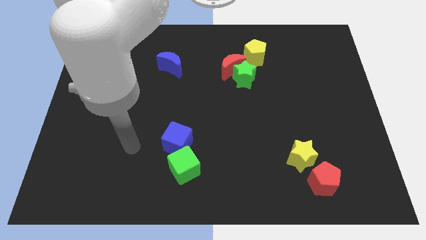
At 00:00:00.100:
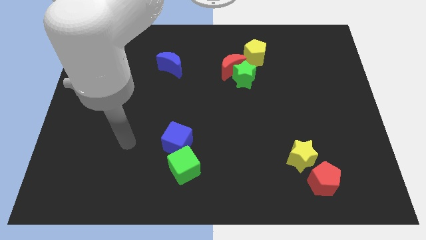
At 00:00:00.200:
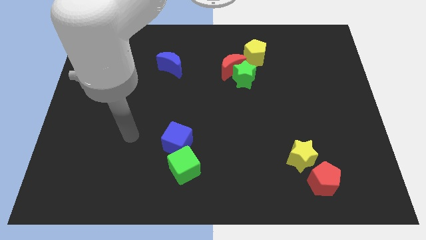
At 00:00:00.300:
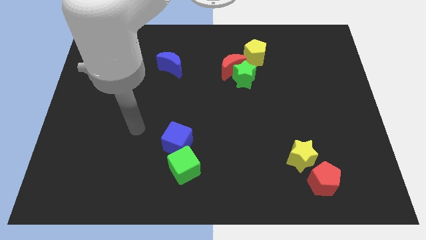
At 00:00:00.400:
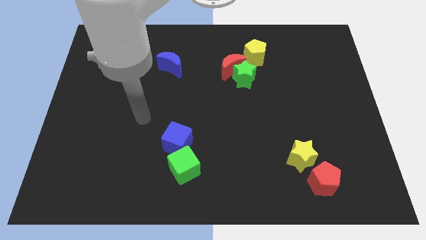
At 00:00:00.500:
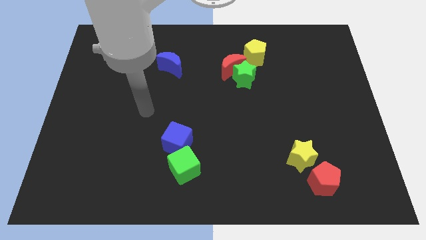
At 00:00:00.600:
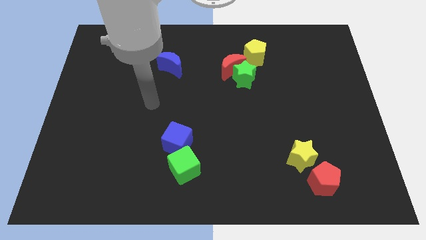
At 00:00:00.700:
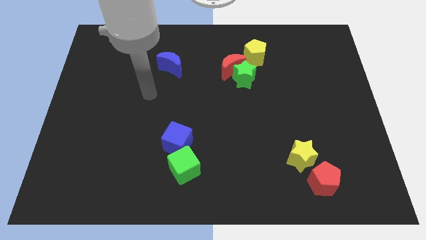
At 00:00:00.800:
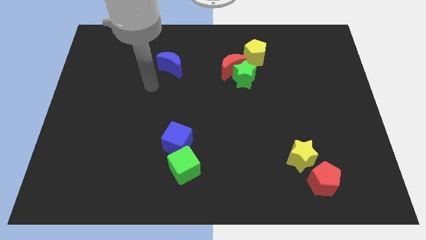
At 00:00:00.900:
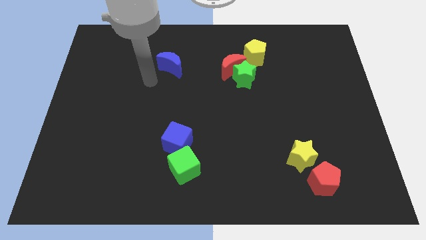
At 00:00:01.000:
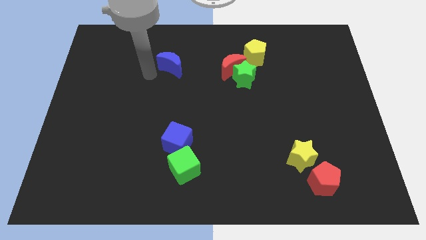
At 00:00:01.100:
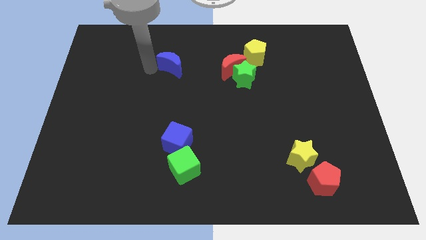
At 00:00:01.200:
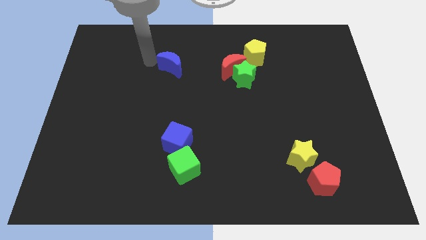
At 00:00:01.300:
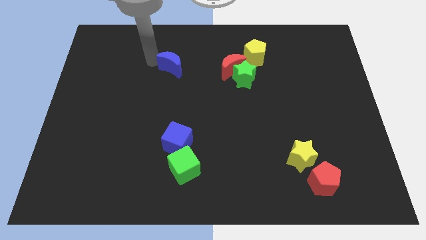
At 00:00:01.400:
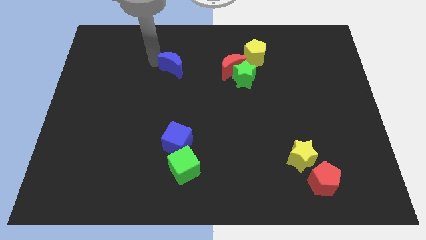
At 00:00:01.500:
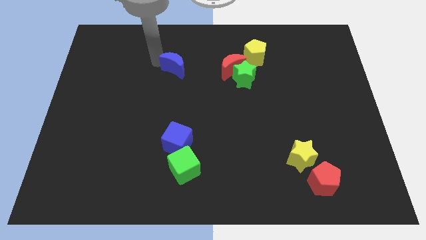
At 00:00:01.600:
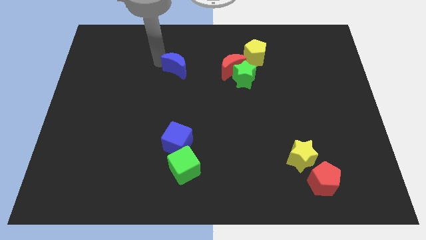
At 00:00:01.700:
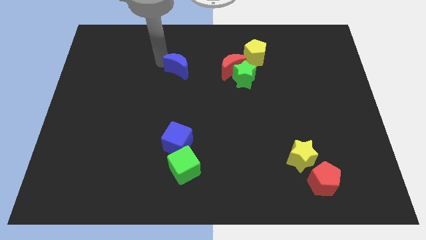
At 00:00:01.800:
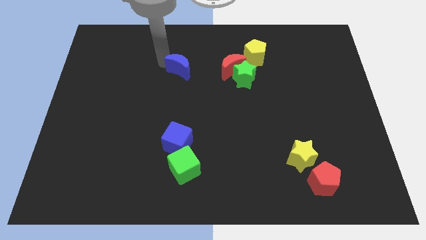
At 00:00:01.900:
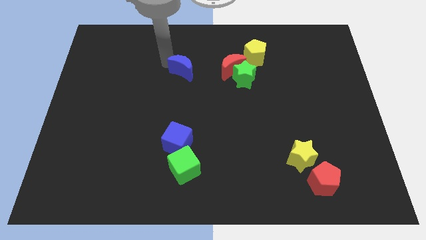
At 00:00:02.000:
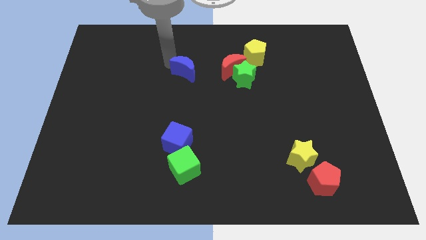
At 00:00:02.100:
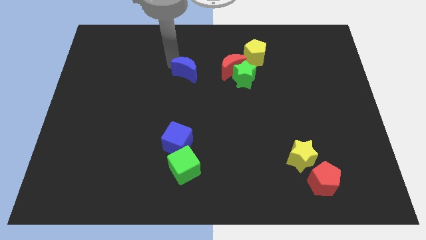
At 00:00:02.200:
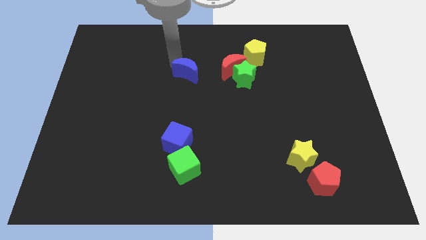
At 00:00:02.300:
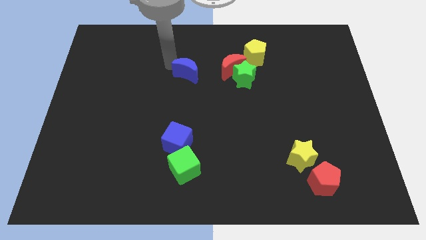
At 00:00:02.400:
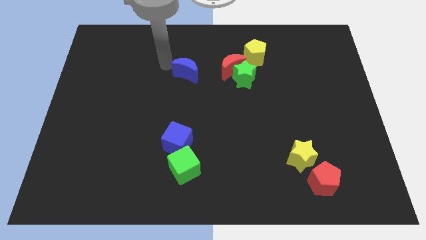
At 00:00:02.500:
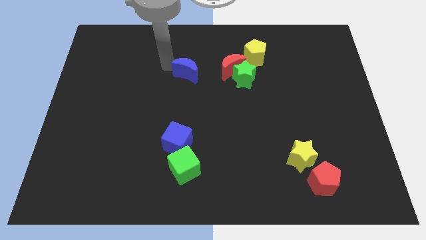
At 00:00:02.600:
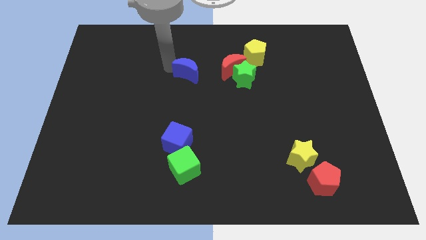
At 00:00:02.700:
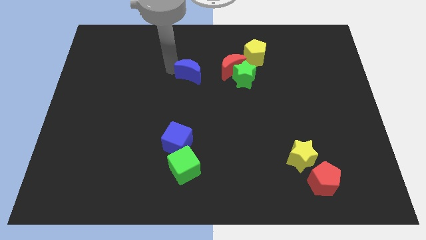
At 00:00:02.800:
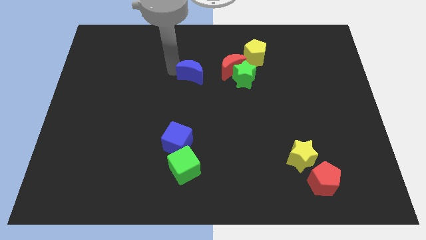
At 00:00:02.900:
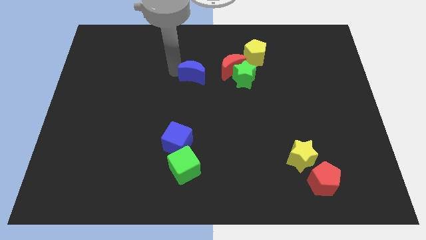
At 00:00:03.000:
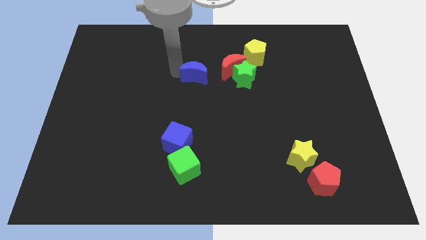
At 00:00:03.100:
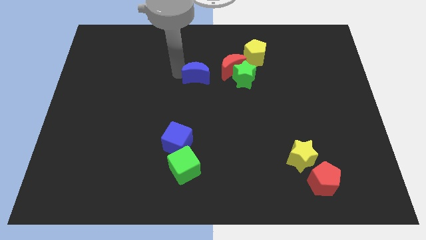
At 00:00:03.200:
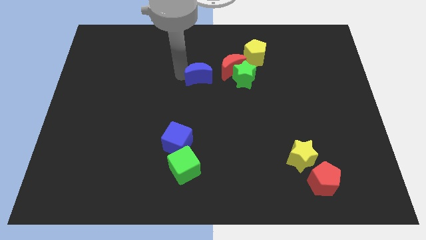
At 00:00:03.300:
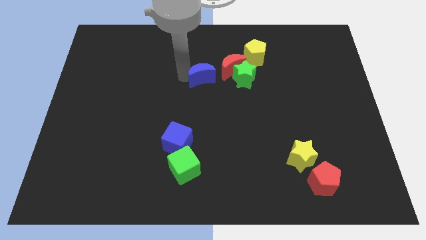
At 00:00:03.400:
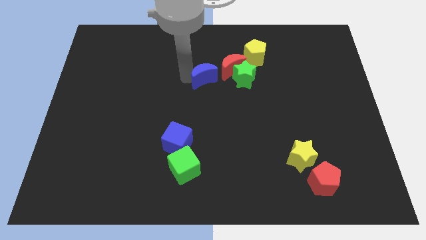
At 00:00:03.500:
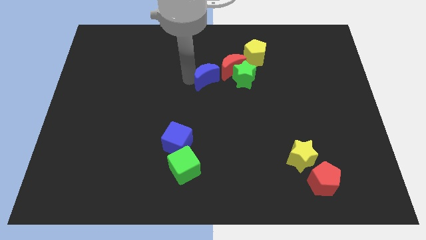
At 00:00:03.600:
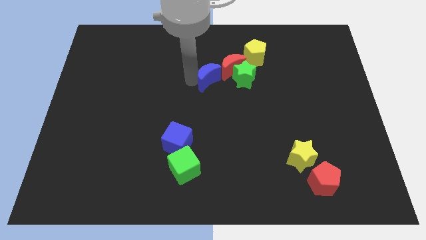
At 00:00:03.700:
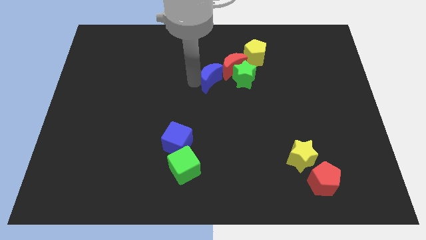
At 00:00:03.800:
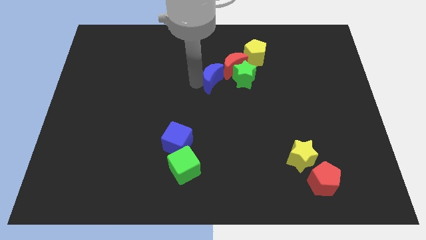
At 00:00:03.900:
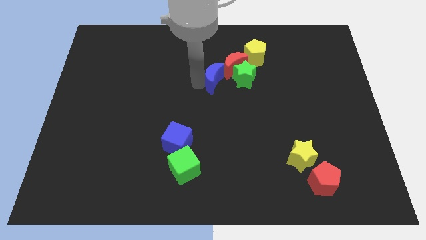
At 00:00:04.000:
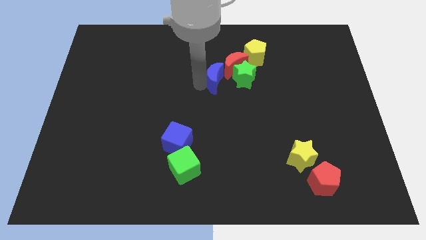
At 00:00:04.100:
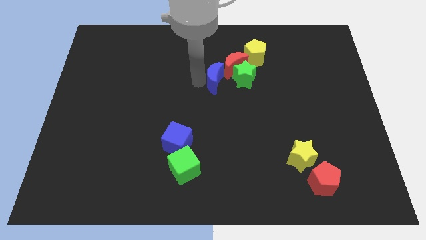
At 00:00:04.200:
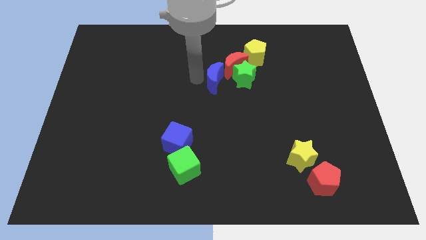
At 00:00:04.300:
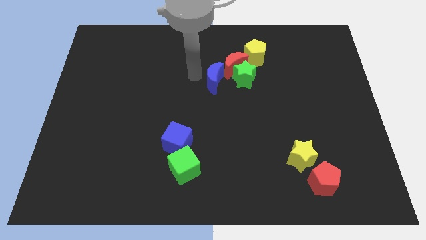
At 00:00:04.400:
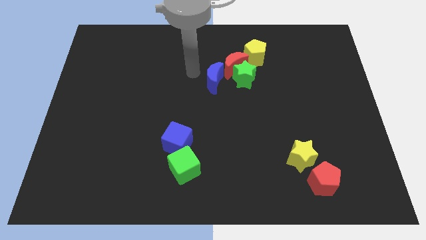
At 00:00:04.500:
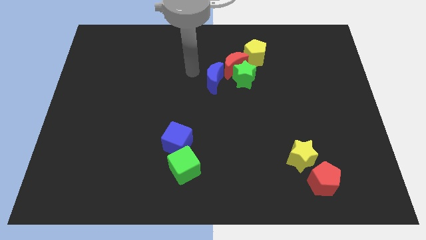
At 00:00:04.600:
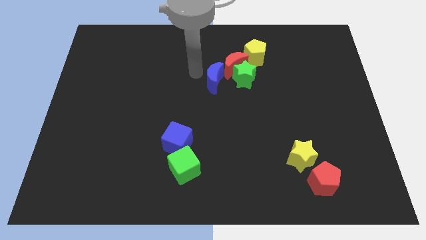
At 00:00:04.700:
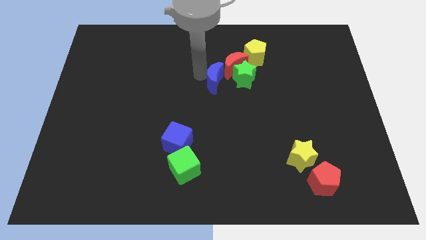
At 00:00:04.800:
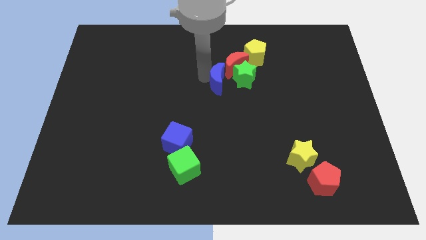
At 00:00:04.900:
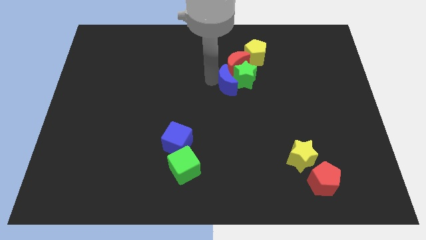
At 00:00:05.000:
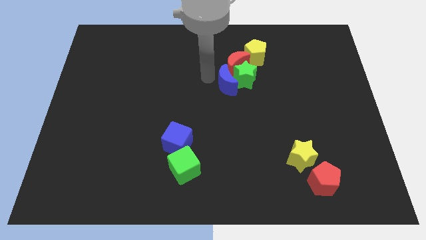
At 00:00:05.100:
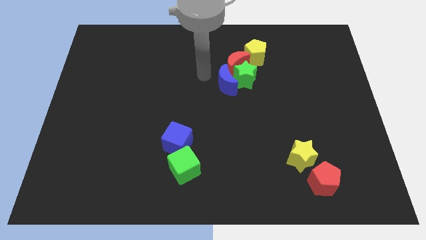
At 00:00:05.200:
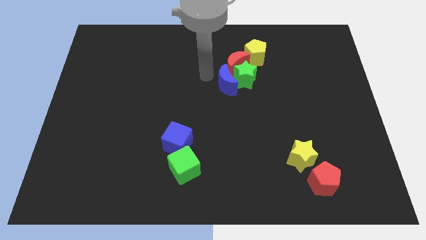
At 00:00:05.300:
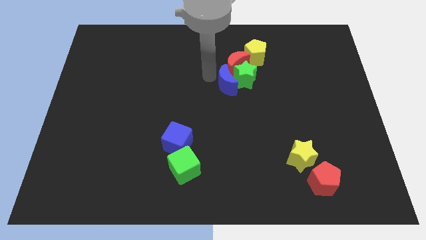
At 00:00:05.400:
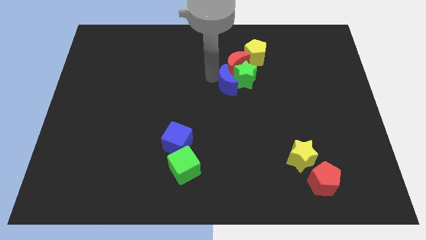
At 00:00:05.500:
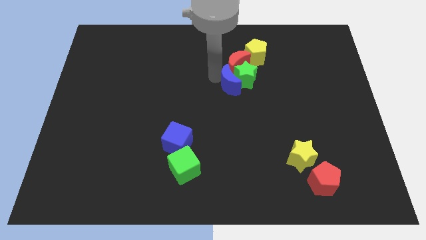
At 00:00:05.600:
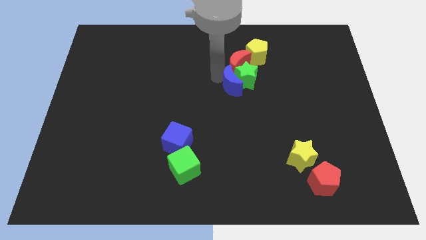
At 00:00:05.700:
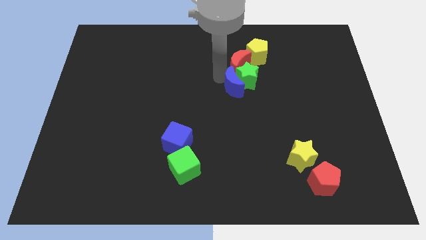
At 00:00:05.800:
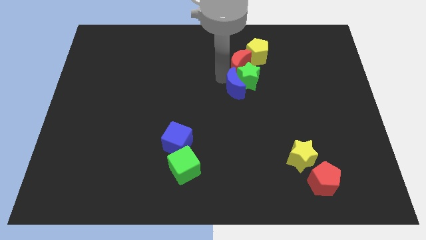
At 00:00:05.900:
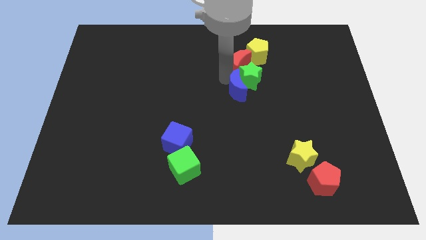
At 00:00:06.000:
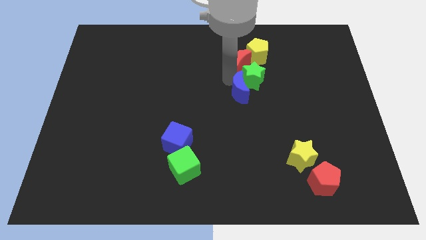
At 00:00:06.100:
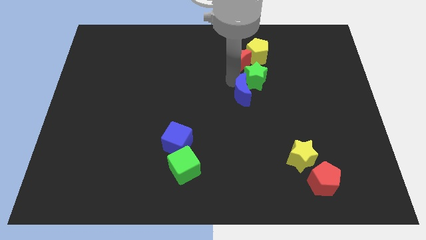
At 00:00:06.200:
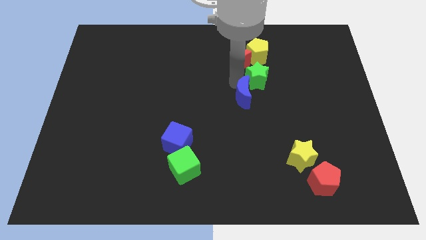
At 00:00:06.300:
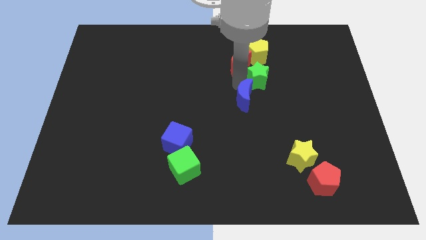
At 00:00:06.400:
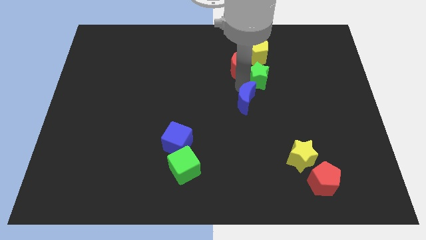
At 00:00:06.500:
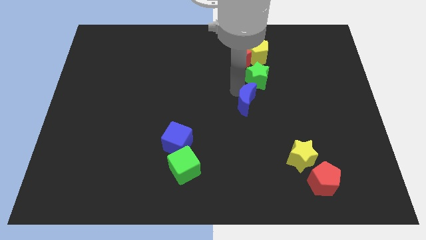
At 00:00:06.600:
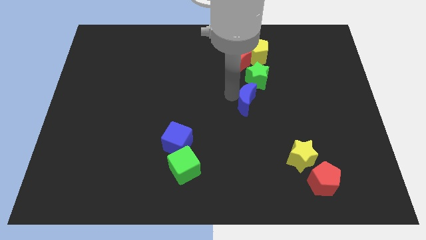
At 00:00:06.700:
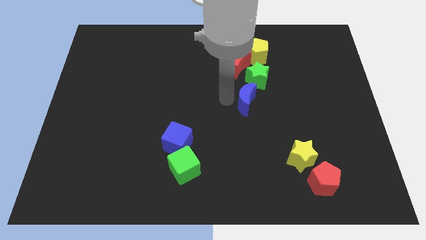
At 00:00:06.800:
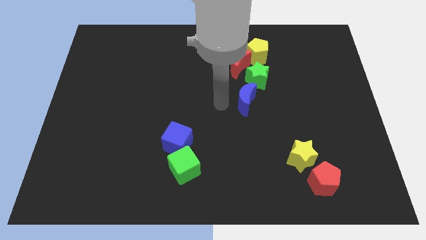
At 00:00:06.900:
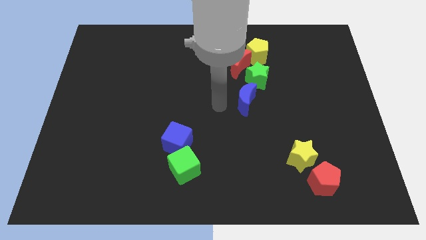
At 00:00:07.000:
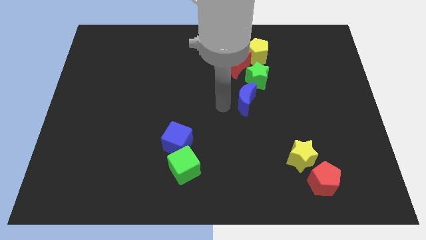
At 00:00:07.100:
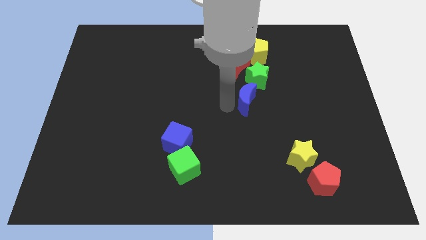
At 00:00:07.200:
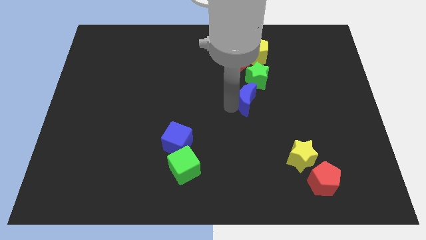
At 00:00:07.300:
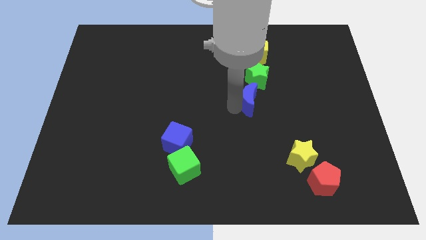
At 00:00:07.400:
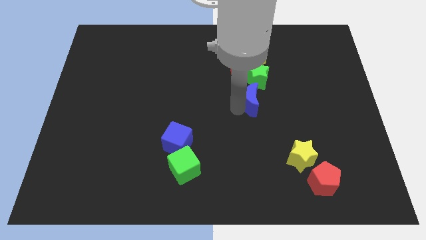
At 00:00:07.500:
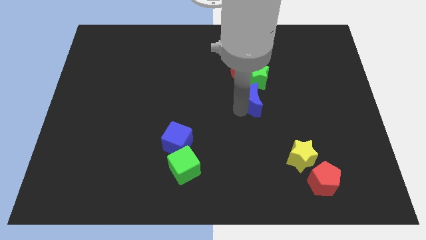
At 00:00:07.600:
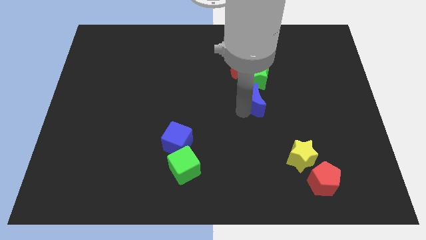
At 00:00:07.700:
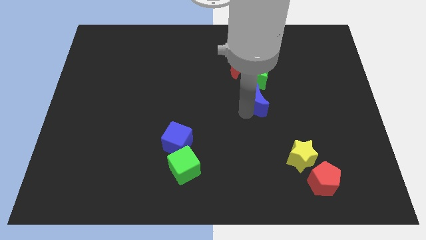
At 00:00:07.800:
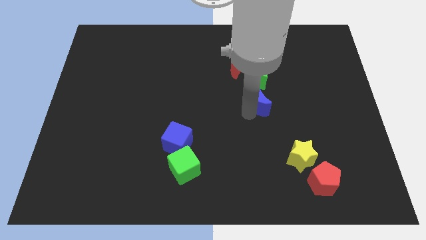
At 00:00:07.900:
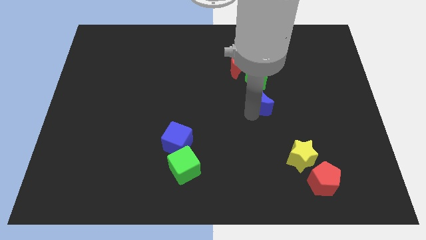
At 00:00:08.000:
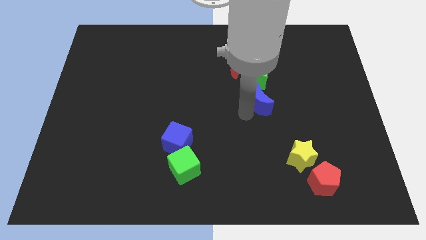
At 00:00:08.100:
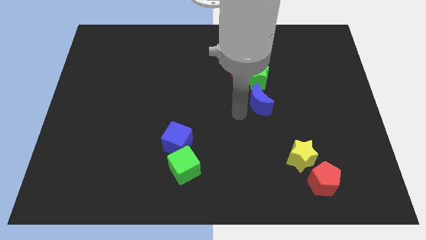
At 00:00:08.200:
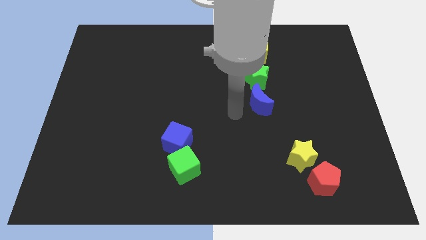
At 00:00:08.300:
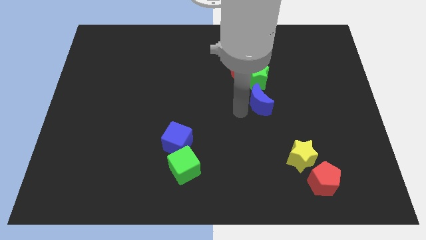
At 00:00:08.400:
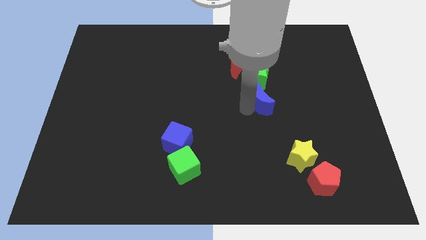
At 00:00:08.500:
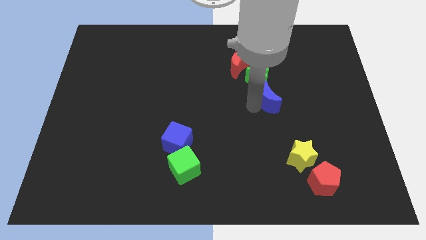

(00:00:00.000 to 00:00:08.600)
move the blue moon to the bottom right side of the green star
